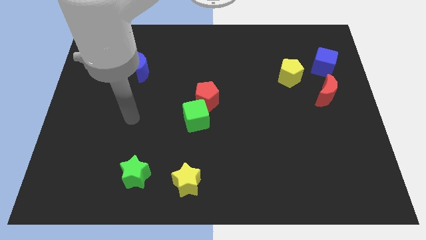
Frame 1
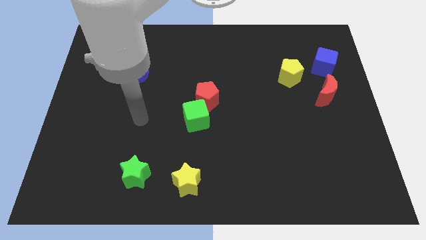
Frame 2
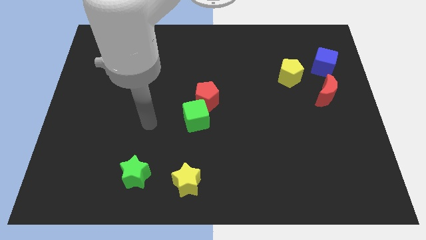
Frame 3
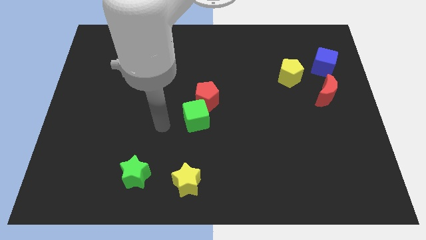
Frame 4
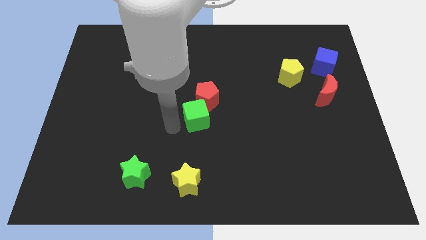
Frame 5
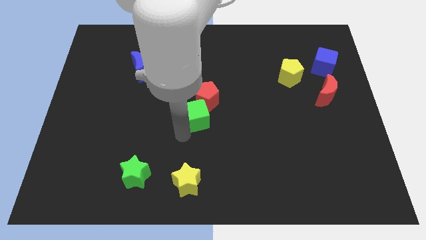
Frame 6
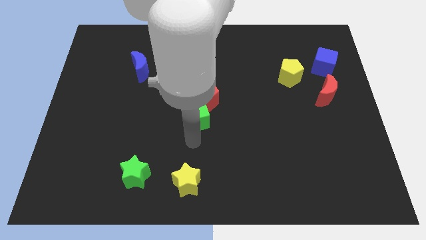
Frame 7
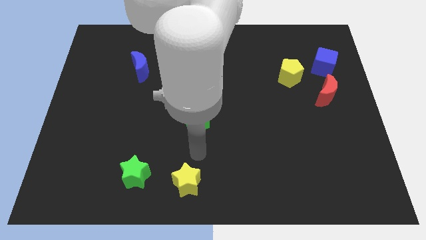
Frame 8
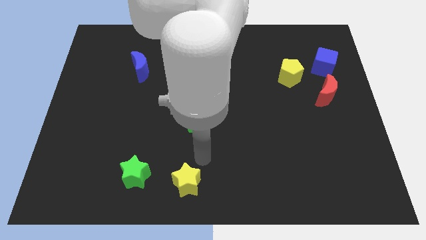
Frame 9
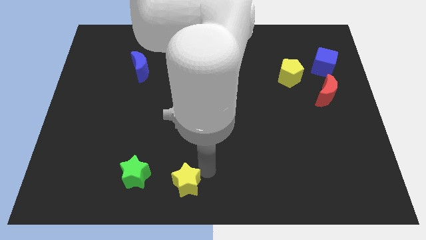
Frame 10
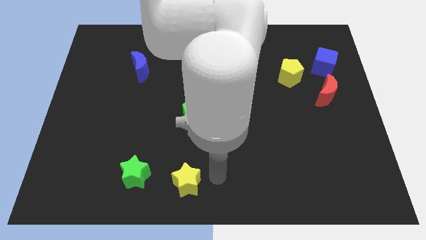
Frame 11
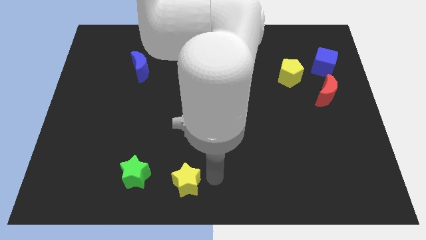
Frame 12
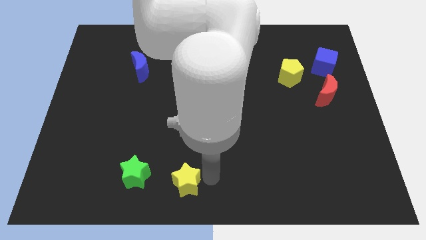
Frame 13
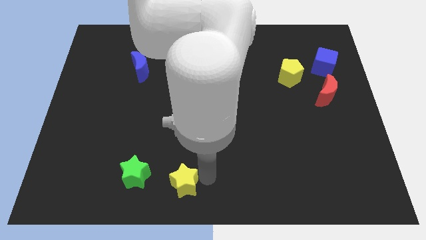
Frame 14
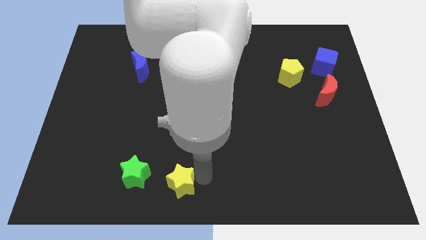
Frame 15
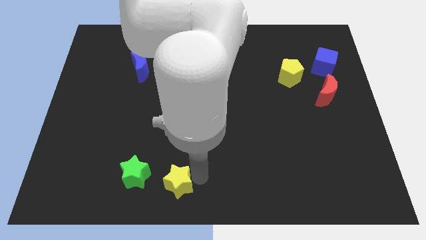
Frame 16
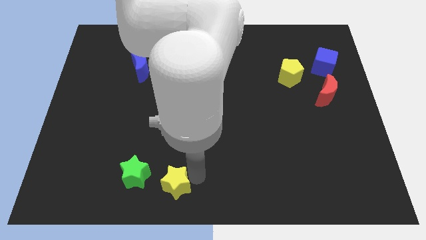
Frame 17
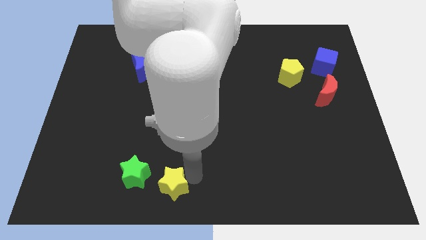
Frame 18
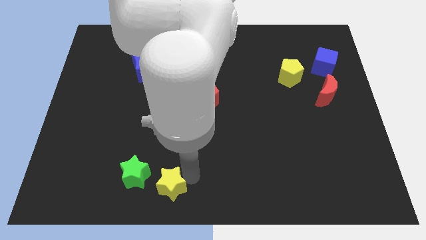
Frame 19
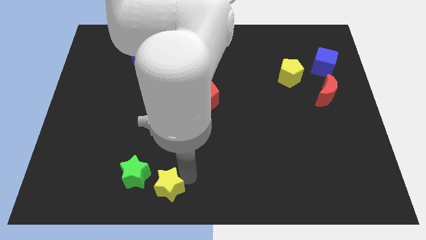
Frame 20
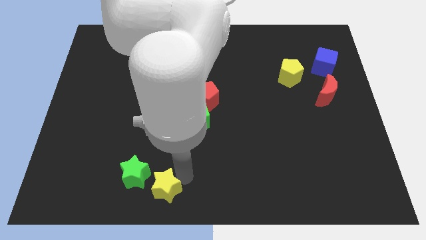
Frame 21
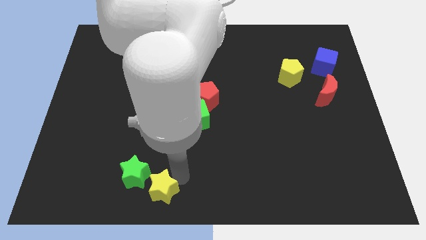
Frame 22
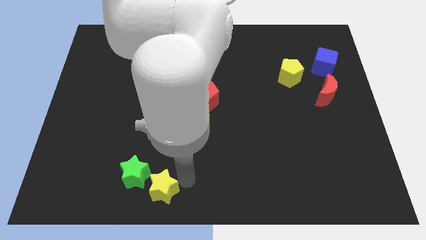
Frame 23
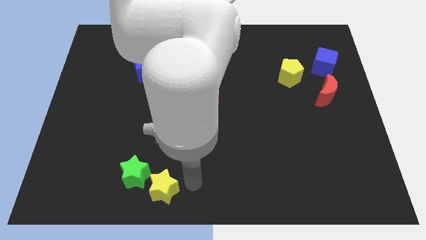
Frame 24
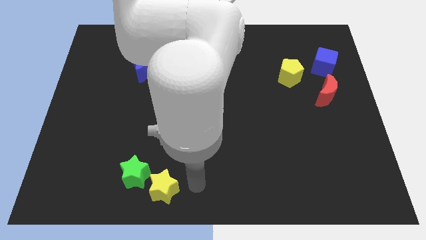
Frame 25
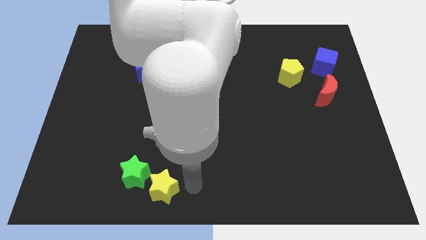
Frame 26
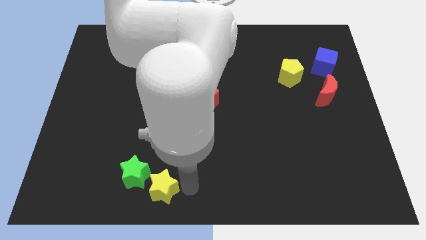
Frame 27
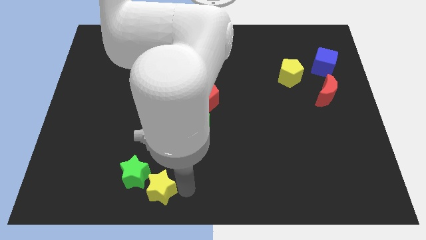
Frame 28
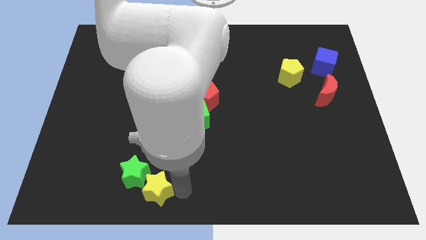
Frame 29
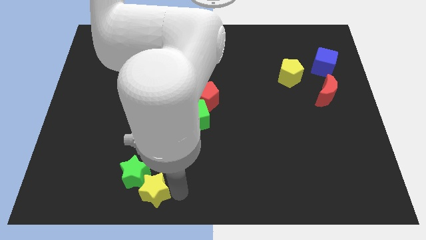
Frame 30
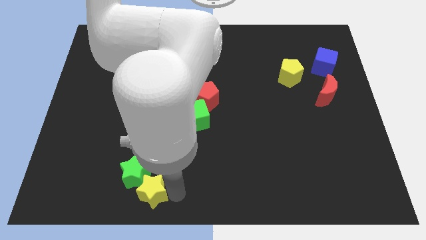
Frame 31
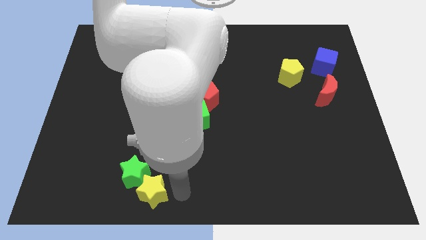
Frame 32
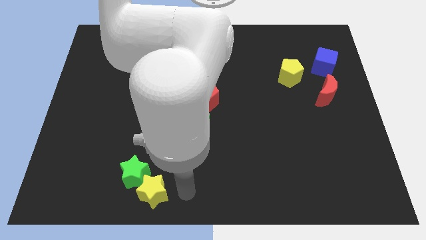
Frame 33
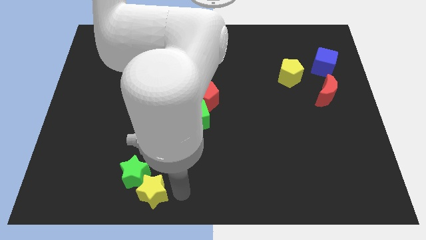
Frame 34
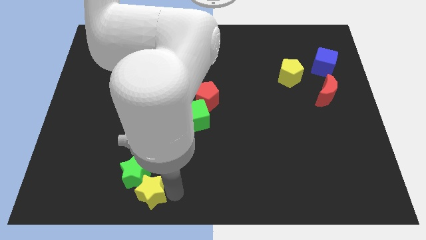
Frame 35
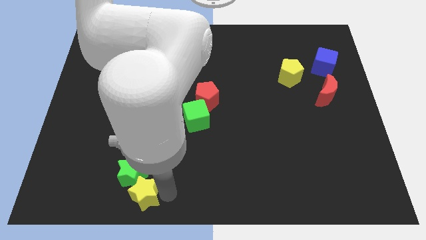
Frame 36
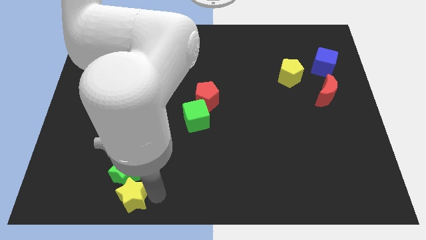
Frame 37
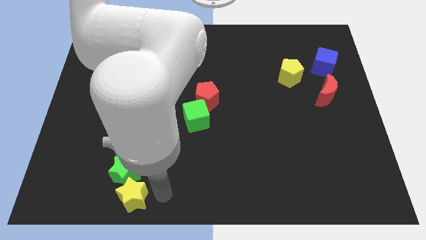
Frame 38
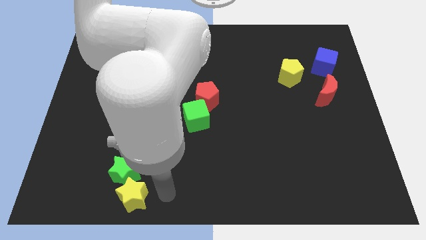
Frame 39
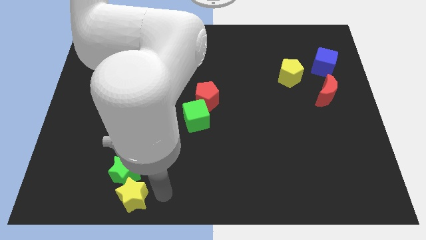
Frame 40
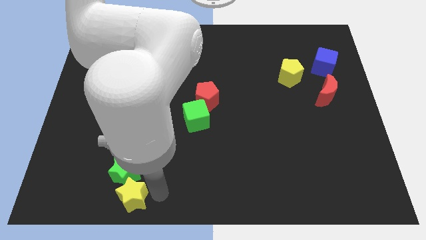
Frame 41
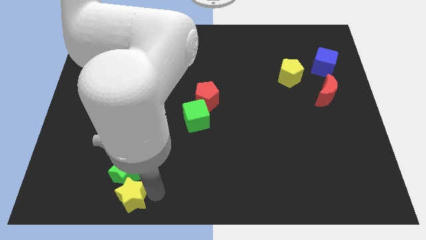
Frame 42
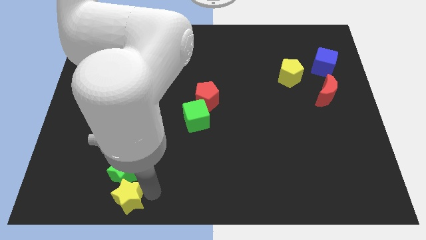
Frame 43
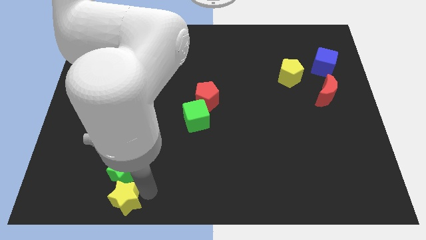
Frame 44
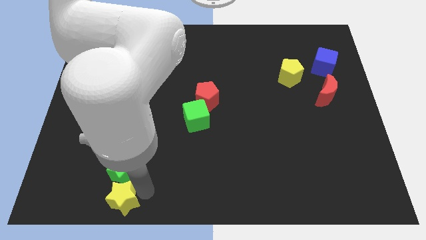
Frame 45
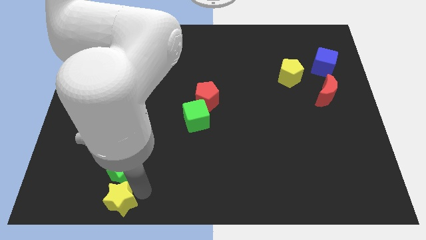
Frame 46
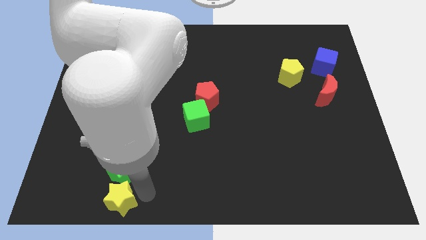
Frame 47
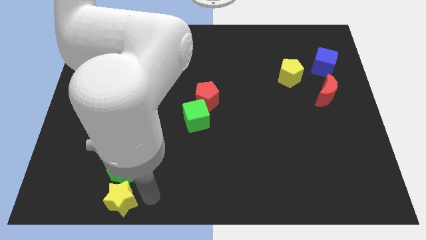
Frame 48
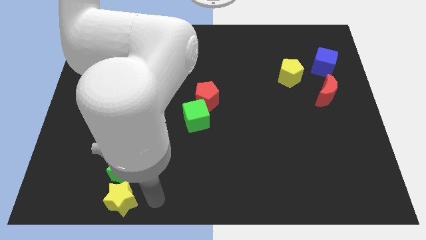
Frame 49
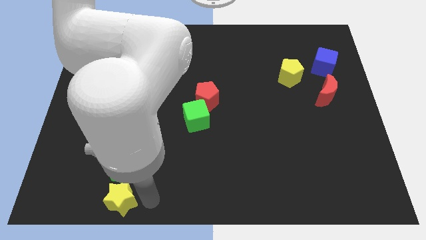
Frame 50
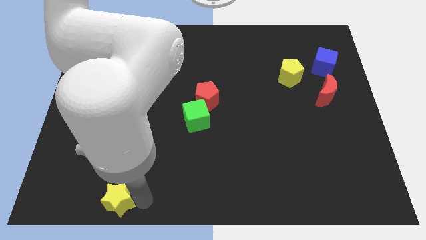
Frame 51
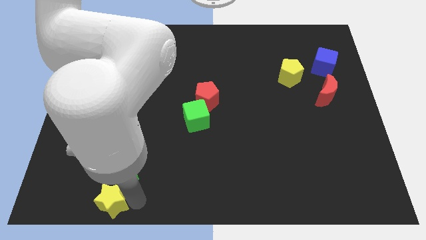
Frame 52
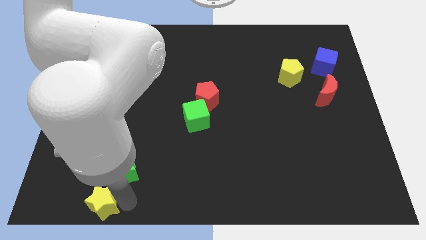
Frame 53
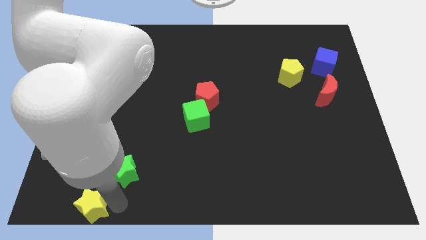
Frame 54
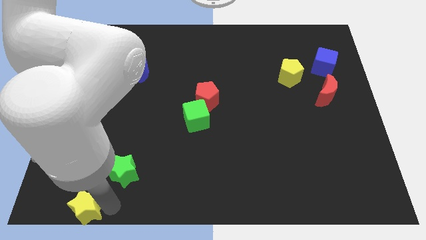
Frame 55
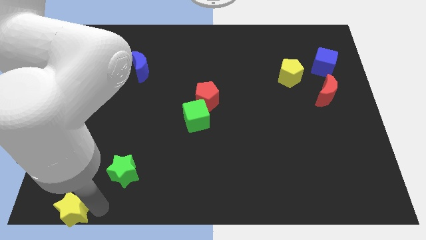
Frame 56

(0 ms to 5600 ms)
push the yellow star to the bottom left of the board

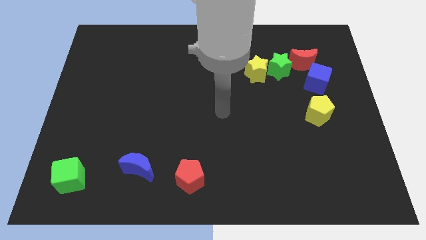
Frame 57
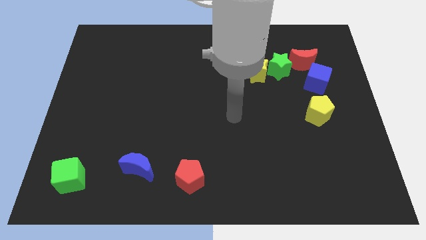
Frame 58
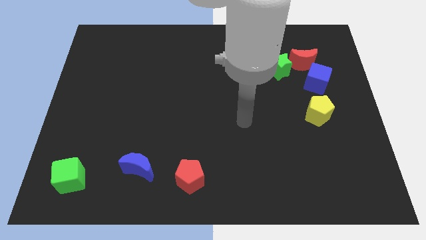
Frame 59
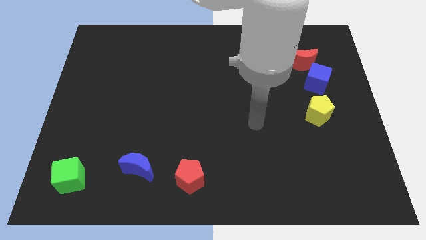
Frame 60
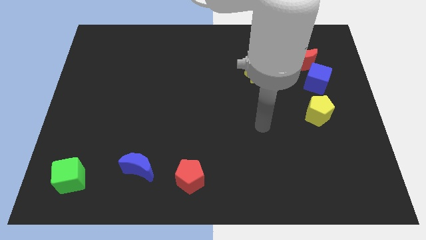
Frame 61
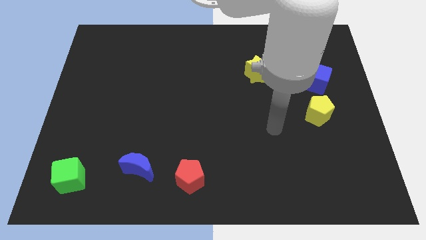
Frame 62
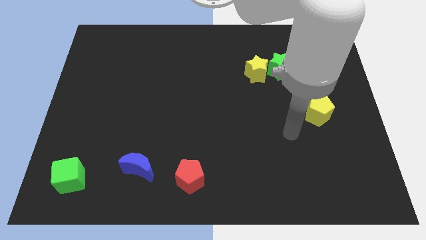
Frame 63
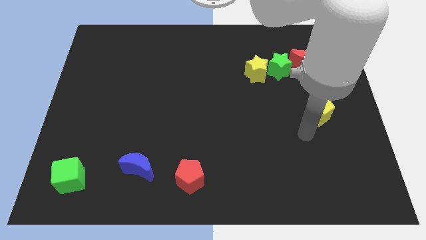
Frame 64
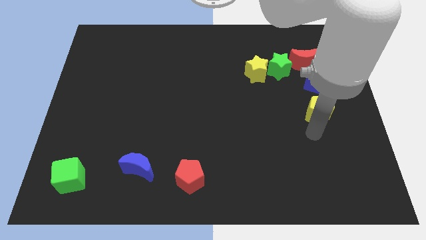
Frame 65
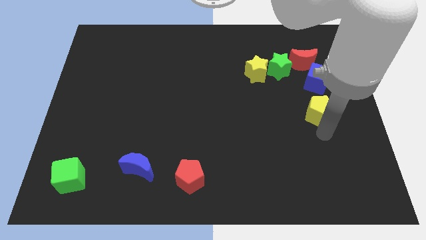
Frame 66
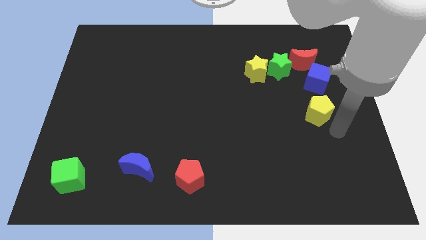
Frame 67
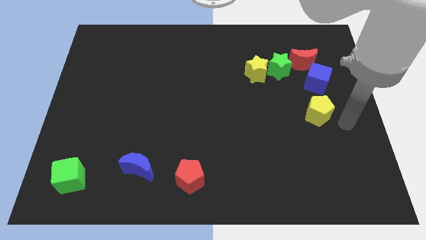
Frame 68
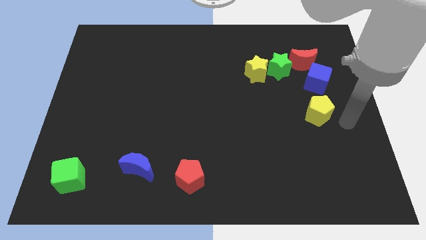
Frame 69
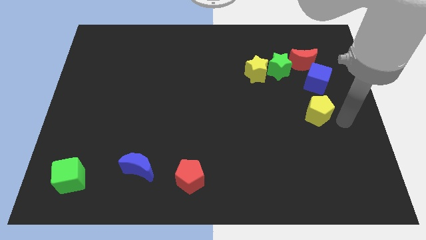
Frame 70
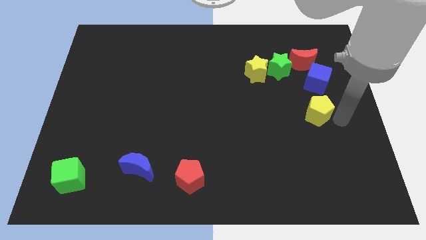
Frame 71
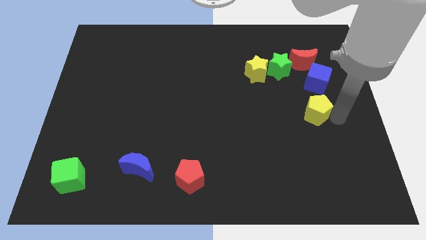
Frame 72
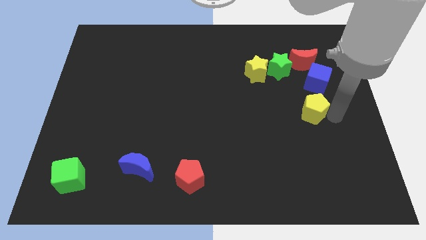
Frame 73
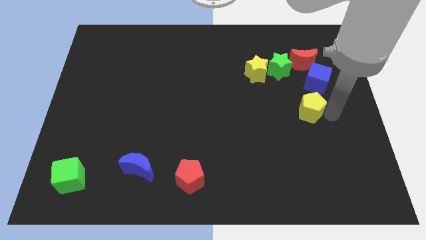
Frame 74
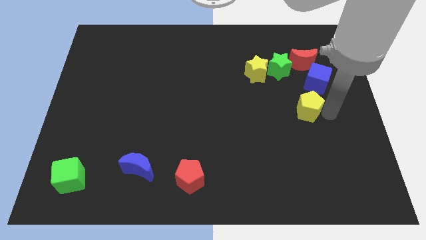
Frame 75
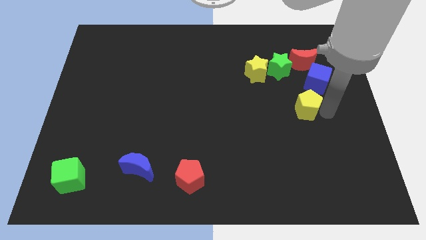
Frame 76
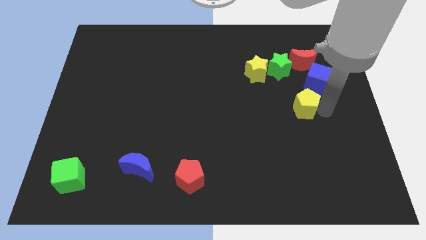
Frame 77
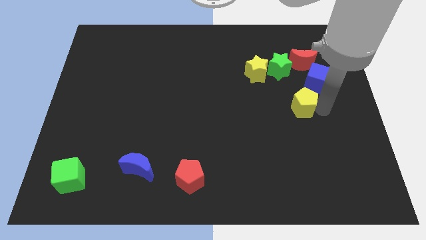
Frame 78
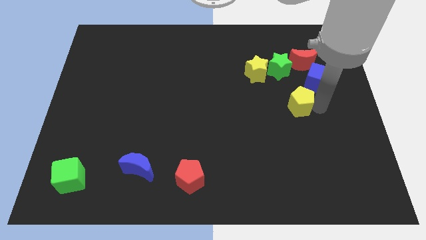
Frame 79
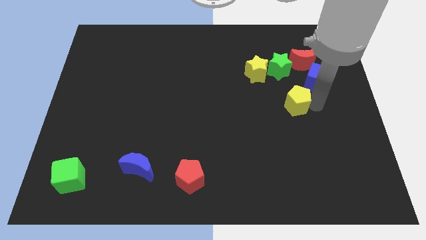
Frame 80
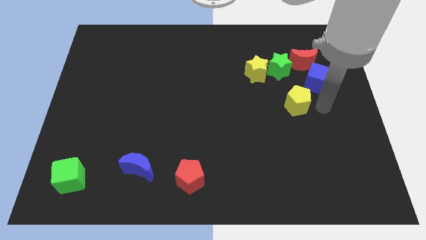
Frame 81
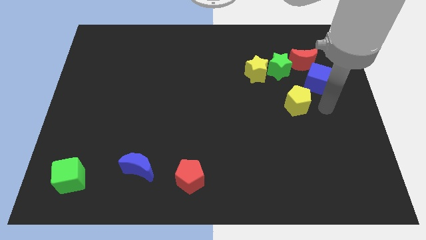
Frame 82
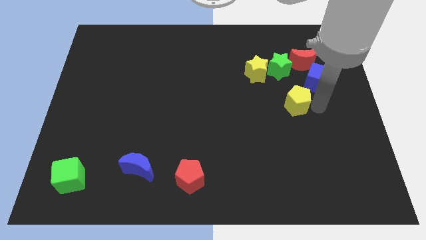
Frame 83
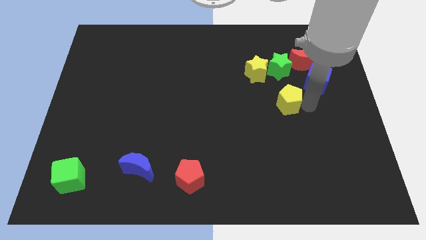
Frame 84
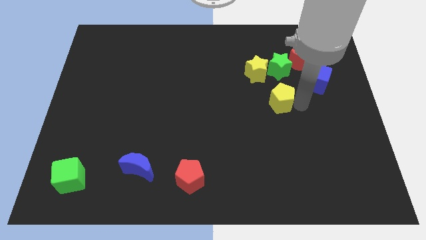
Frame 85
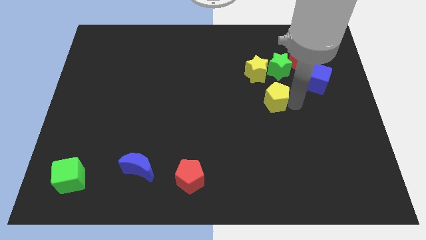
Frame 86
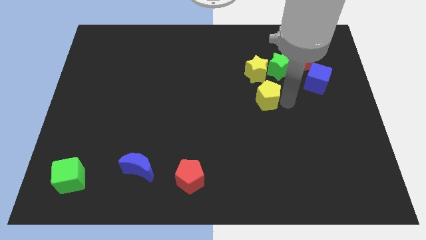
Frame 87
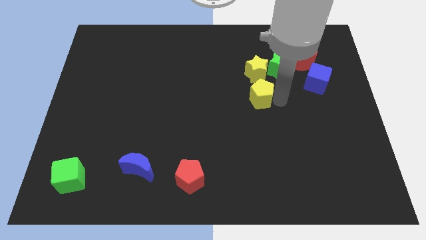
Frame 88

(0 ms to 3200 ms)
slide the yellow pentagon to the middle of the board
